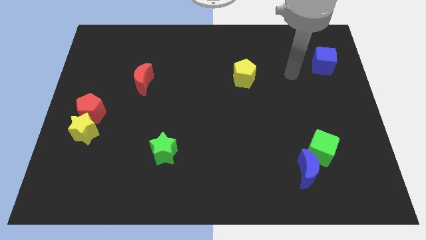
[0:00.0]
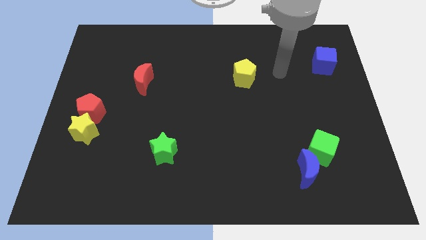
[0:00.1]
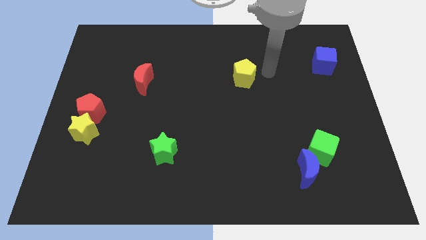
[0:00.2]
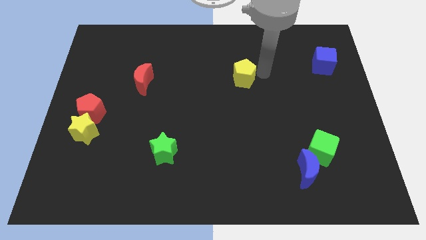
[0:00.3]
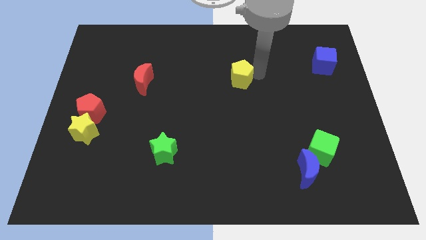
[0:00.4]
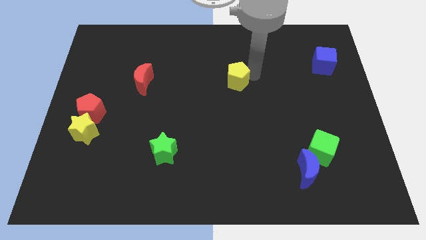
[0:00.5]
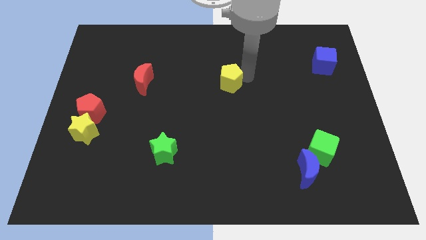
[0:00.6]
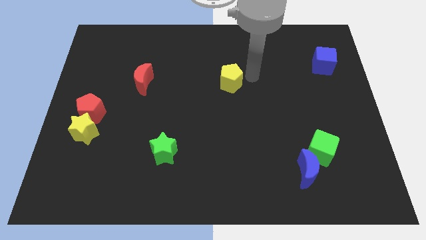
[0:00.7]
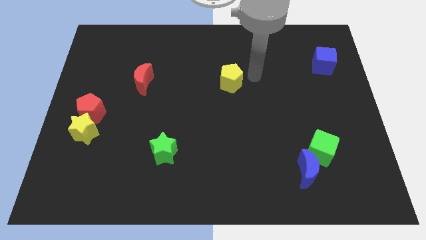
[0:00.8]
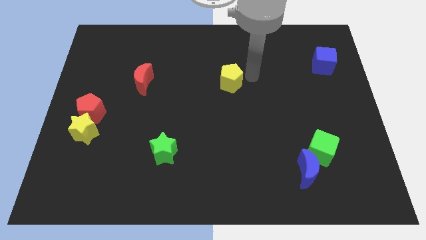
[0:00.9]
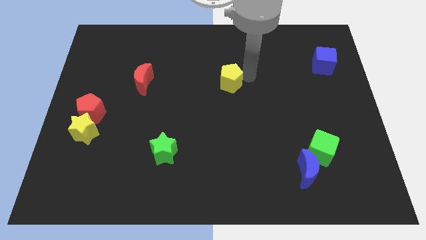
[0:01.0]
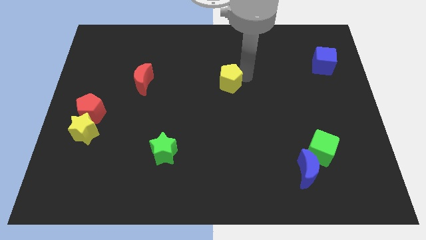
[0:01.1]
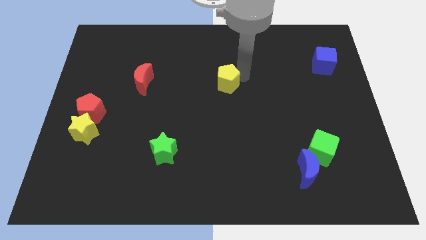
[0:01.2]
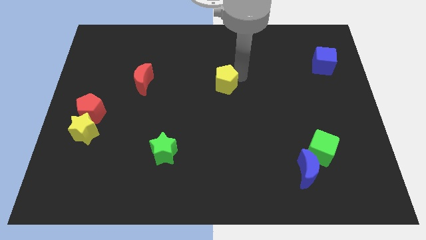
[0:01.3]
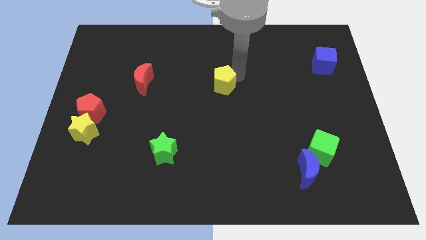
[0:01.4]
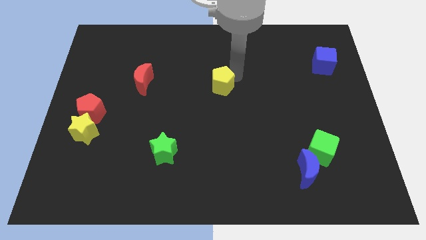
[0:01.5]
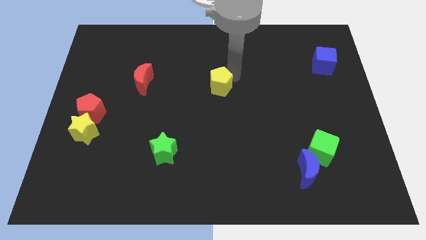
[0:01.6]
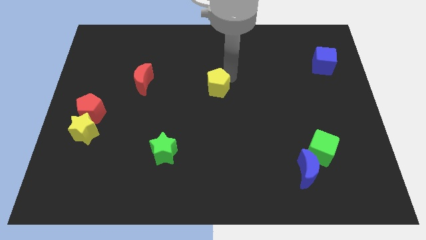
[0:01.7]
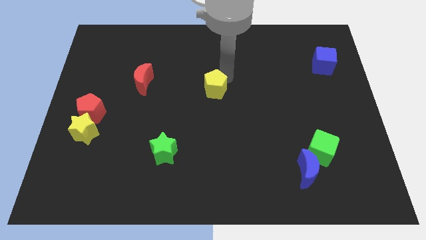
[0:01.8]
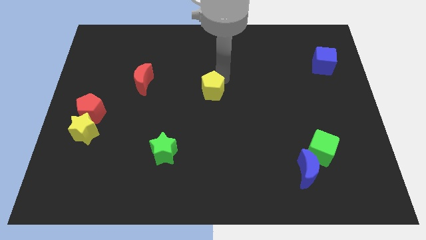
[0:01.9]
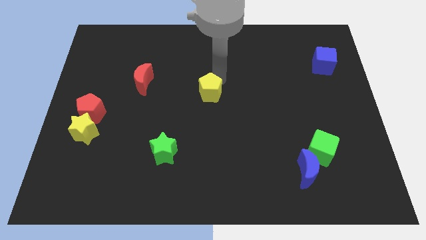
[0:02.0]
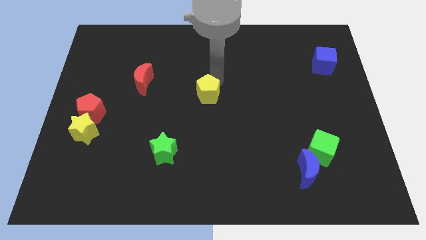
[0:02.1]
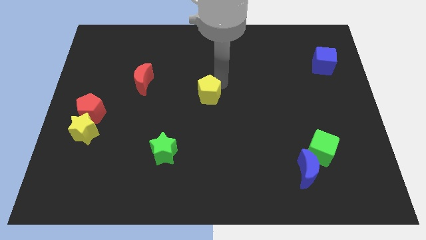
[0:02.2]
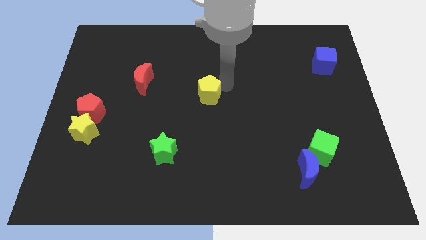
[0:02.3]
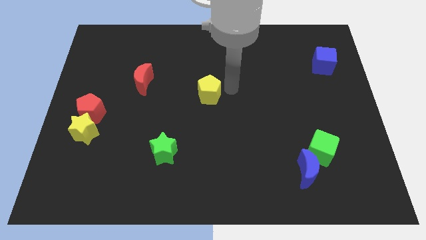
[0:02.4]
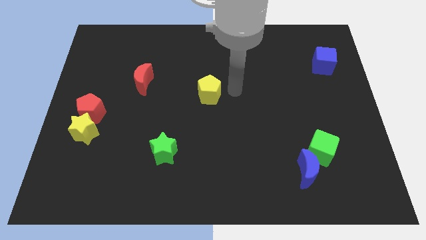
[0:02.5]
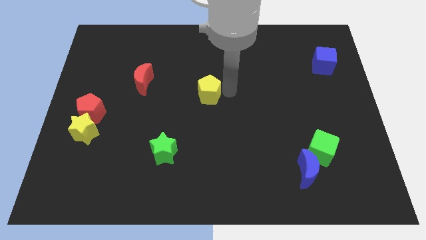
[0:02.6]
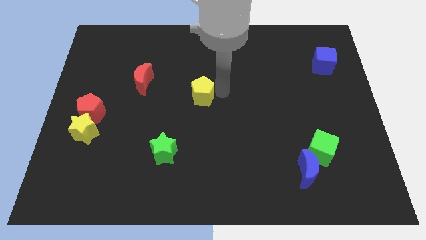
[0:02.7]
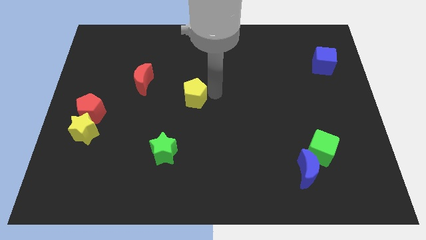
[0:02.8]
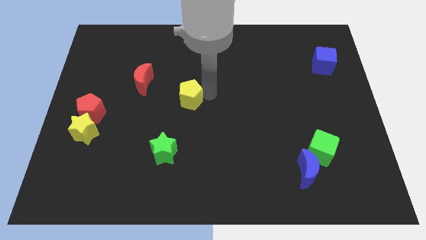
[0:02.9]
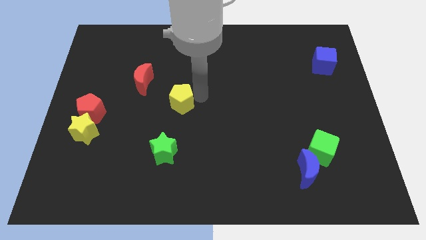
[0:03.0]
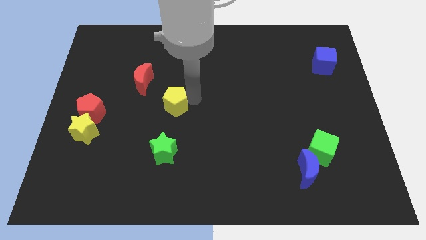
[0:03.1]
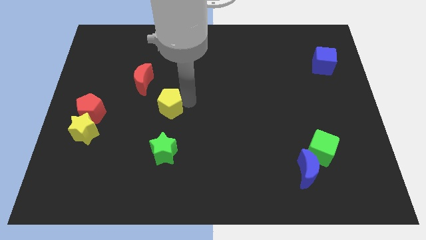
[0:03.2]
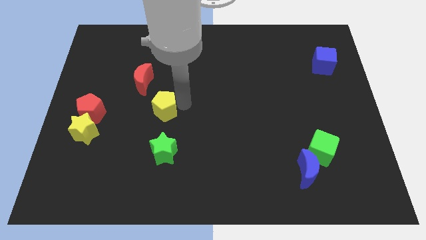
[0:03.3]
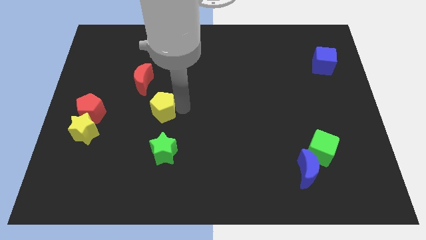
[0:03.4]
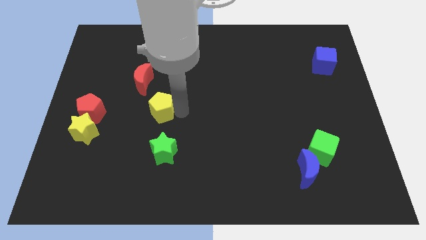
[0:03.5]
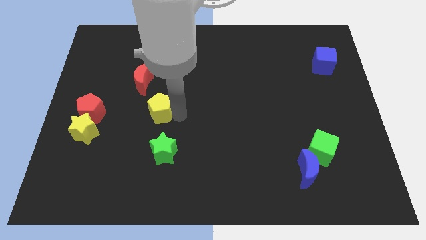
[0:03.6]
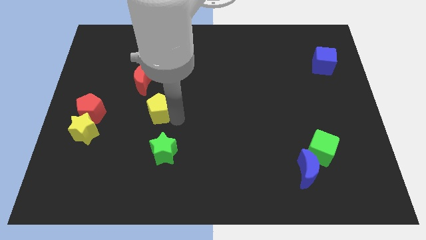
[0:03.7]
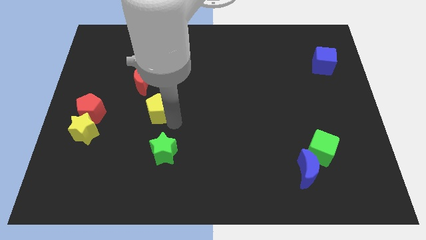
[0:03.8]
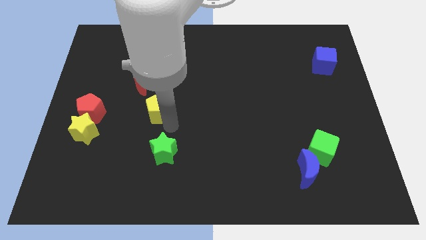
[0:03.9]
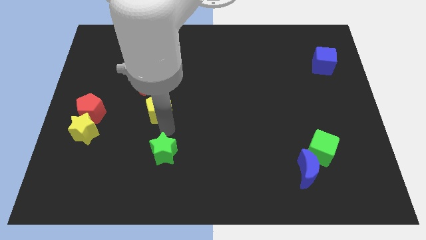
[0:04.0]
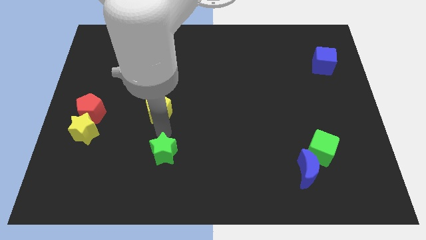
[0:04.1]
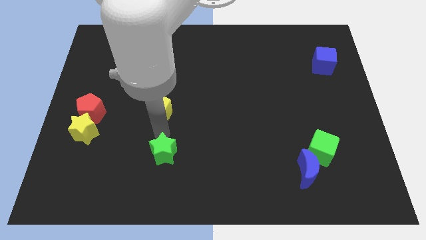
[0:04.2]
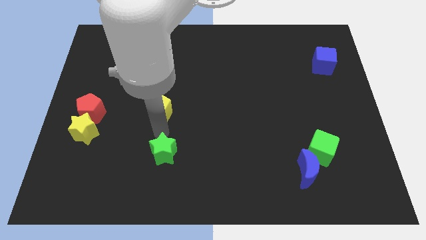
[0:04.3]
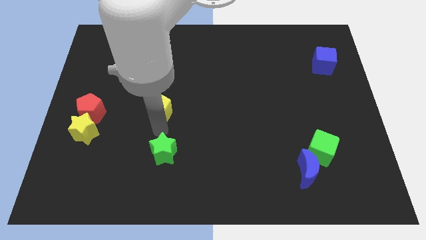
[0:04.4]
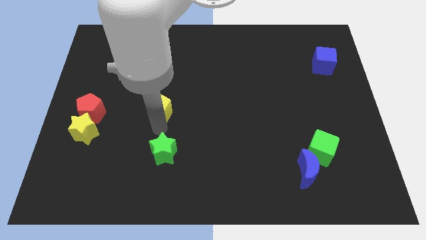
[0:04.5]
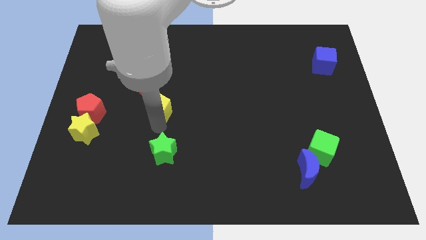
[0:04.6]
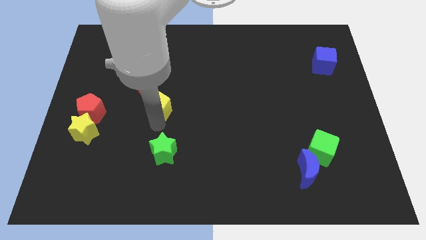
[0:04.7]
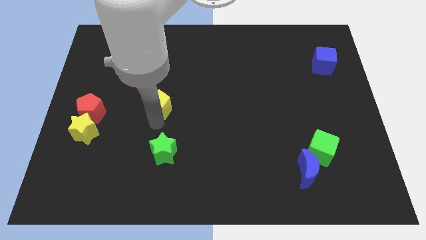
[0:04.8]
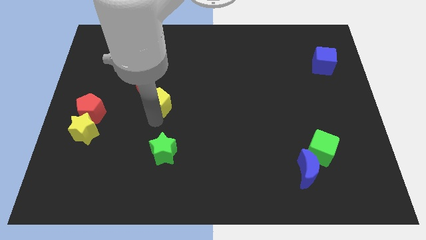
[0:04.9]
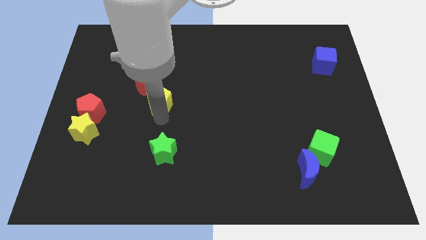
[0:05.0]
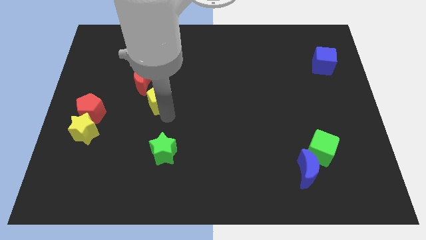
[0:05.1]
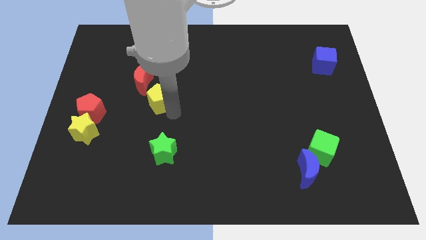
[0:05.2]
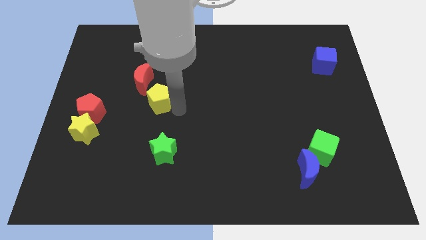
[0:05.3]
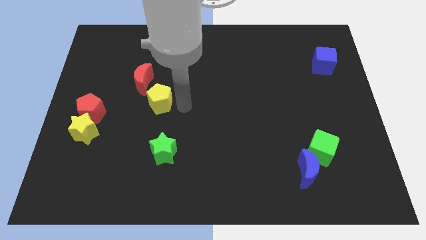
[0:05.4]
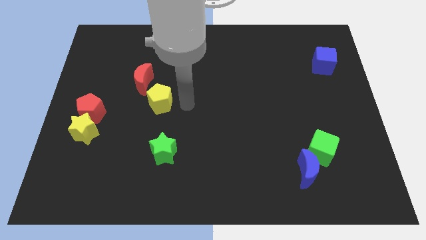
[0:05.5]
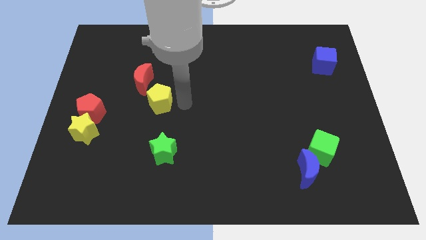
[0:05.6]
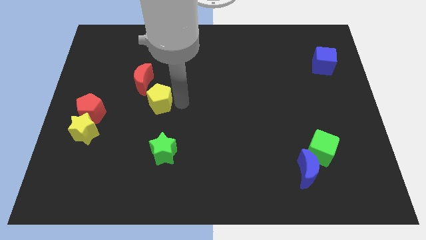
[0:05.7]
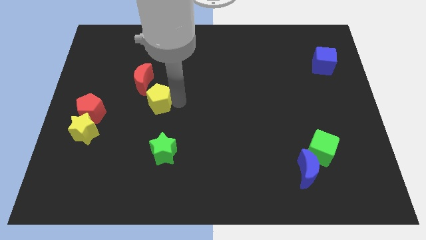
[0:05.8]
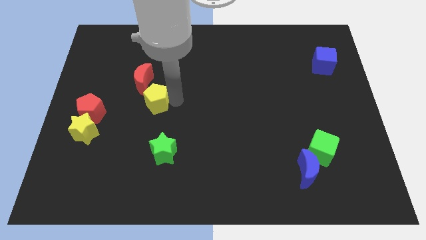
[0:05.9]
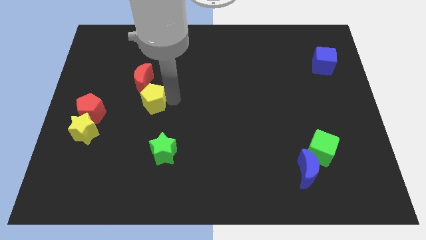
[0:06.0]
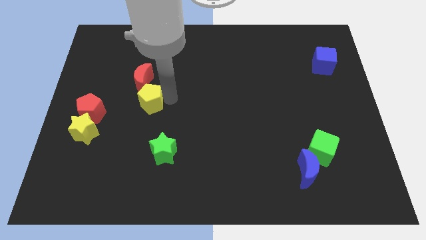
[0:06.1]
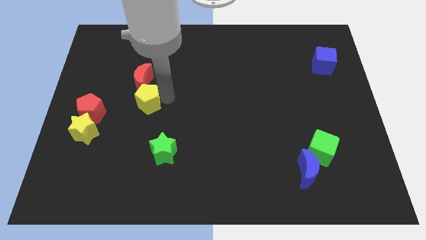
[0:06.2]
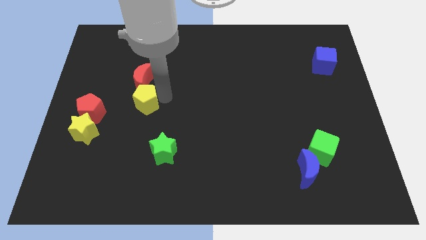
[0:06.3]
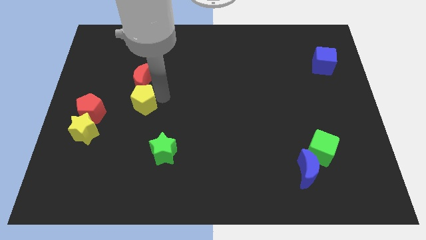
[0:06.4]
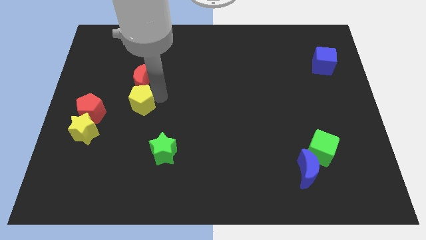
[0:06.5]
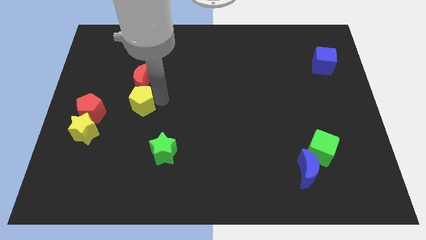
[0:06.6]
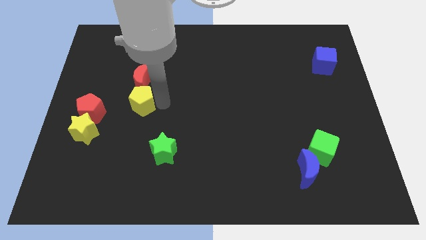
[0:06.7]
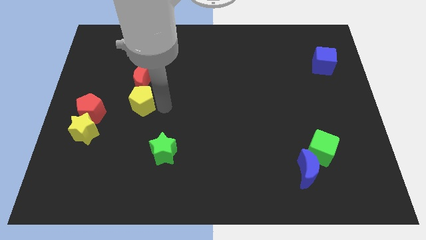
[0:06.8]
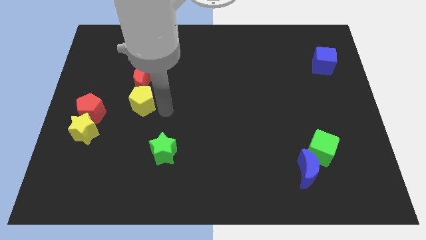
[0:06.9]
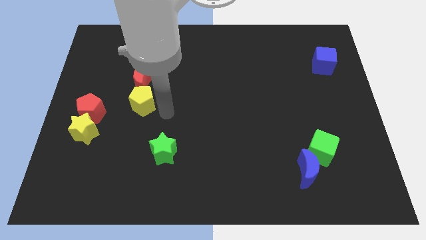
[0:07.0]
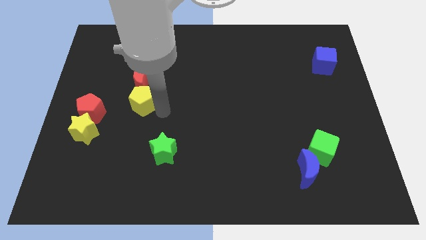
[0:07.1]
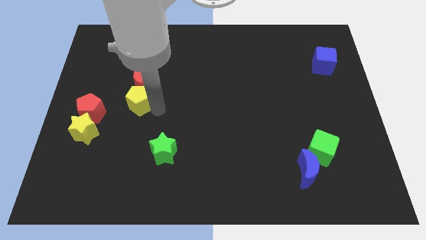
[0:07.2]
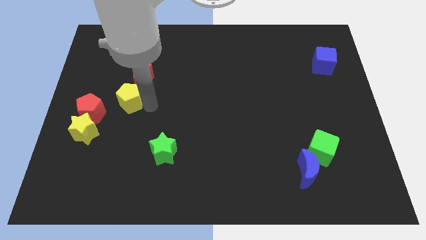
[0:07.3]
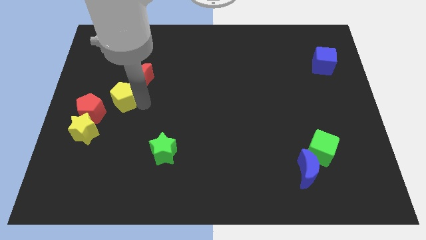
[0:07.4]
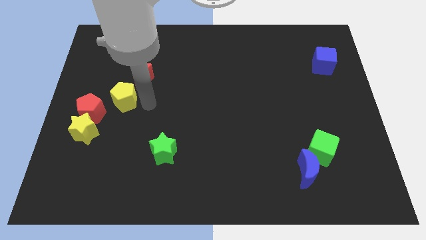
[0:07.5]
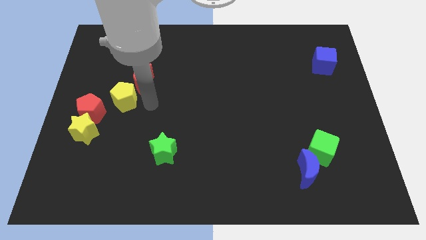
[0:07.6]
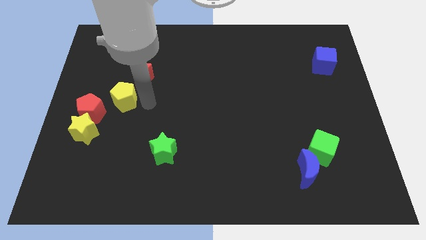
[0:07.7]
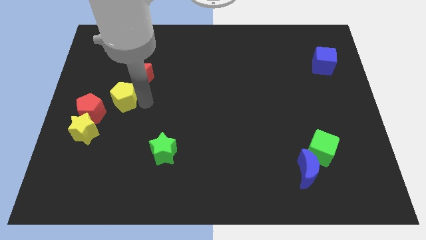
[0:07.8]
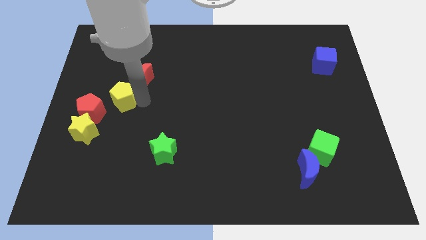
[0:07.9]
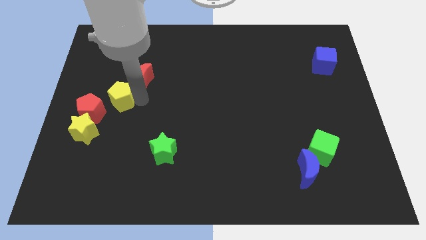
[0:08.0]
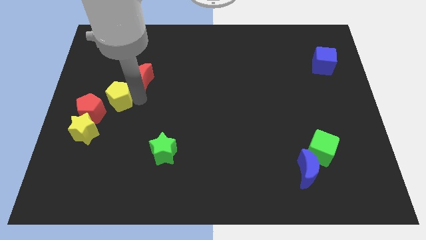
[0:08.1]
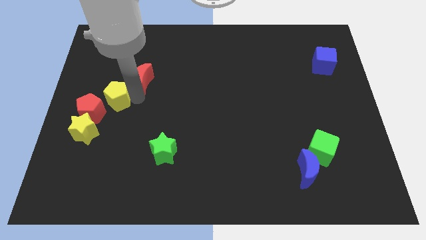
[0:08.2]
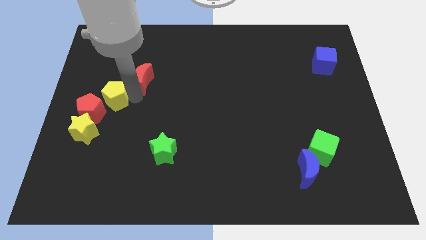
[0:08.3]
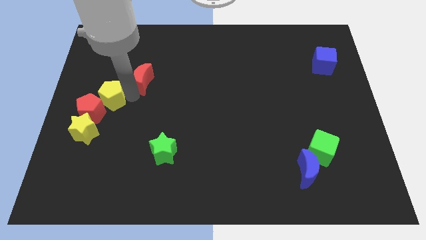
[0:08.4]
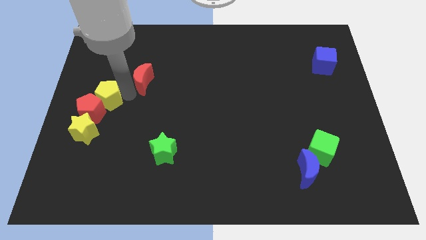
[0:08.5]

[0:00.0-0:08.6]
move the yellow pentagon to the left side
